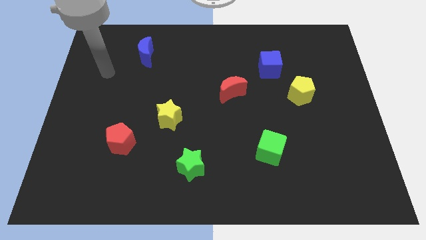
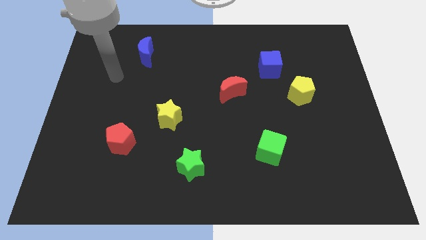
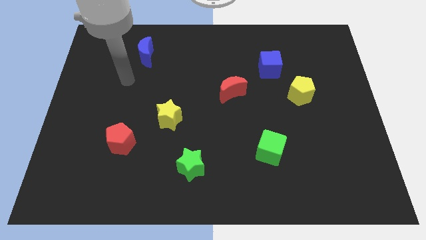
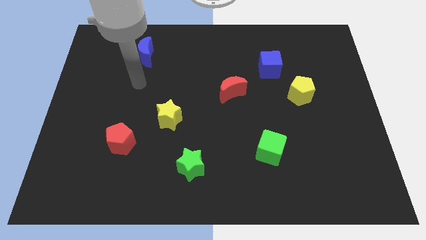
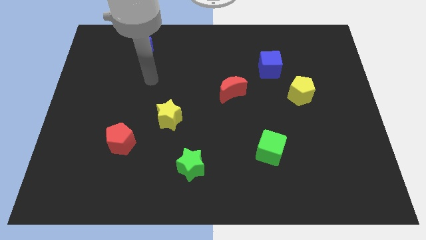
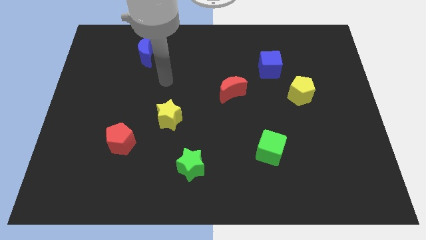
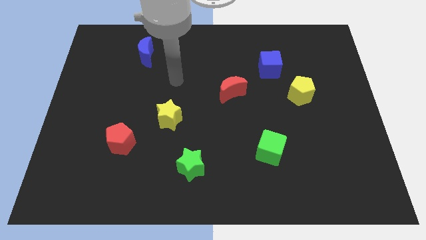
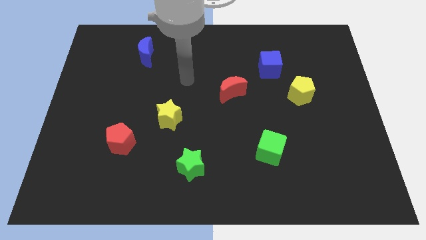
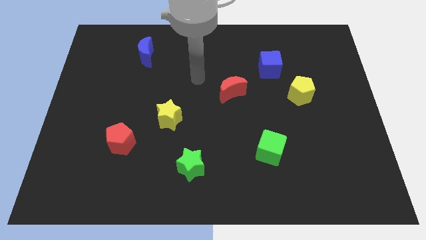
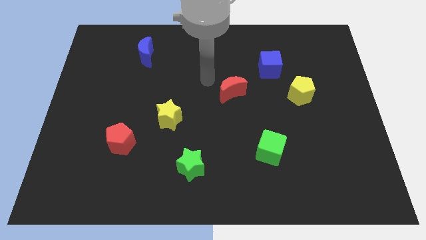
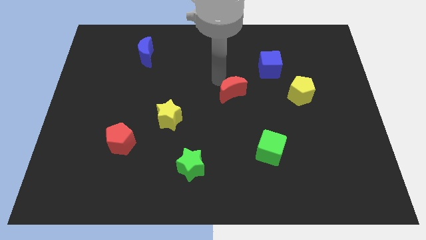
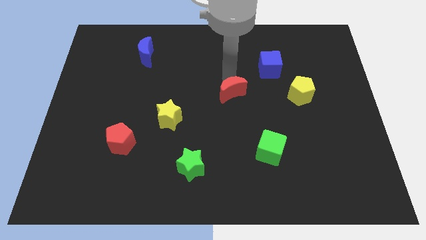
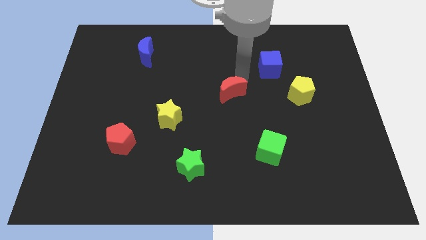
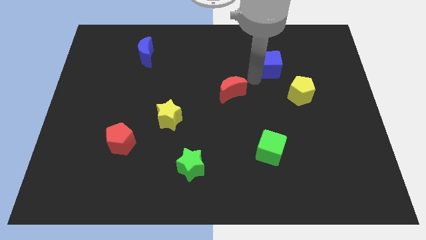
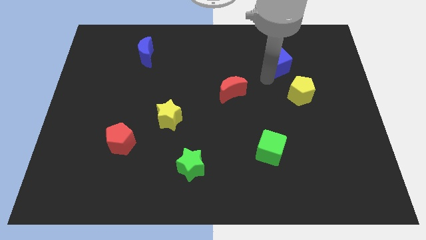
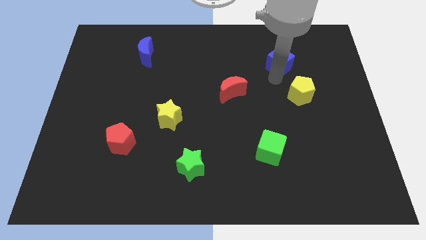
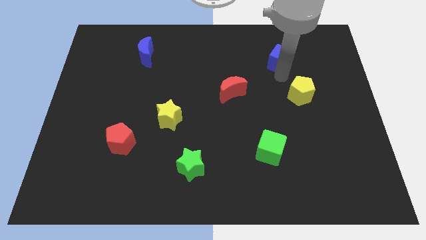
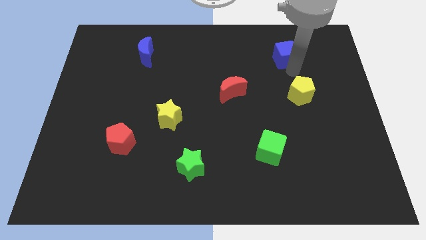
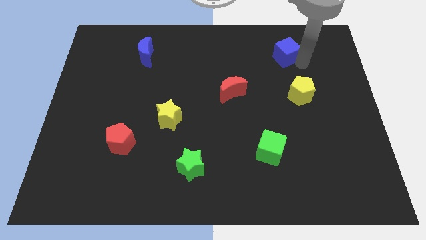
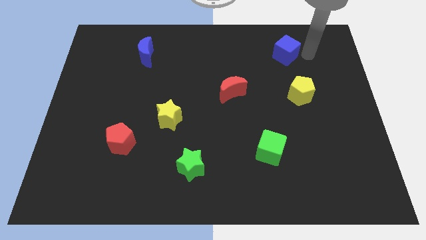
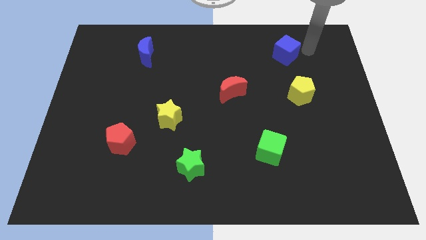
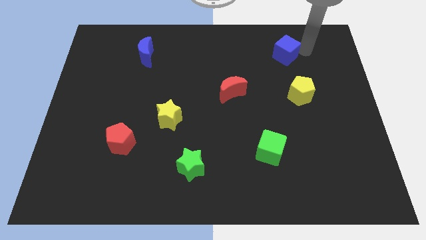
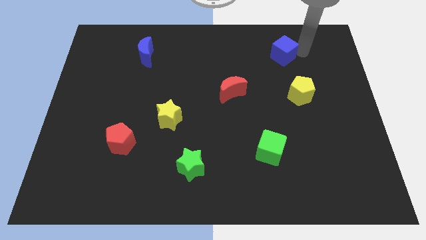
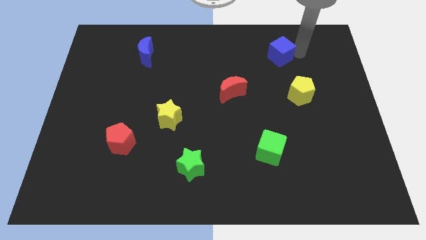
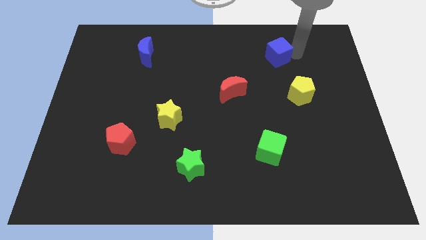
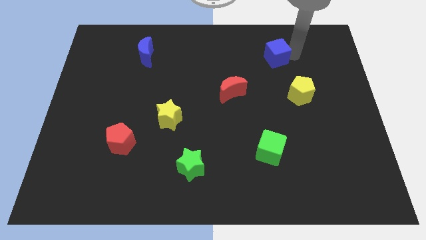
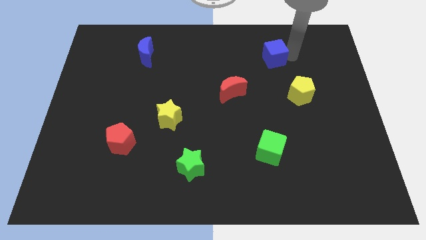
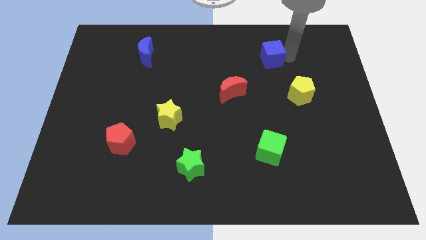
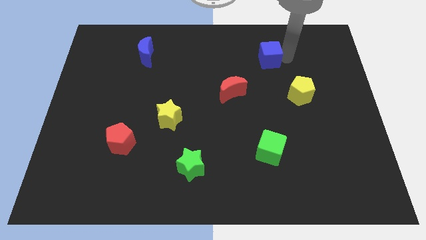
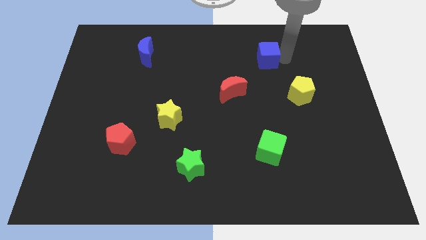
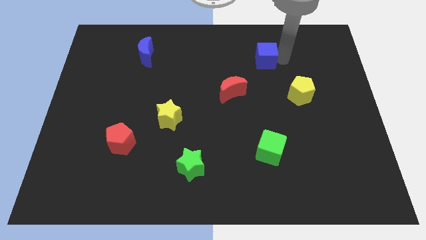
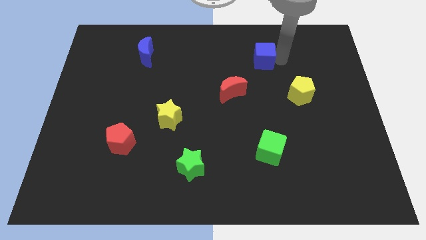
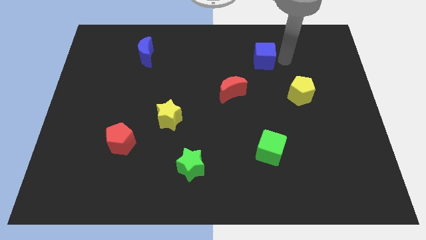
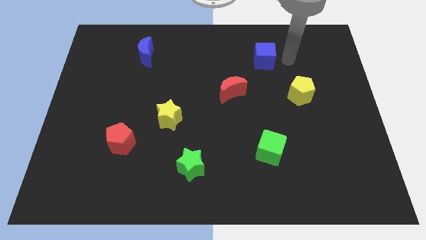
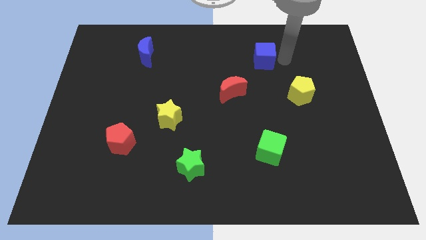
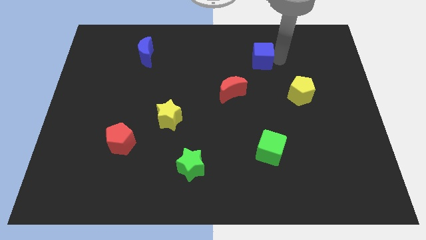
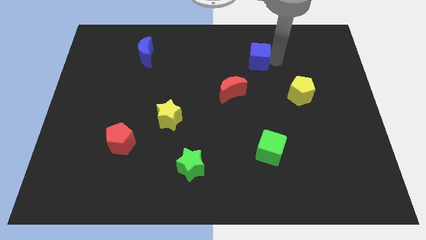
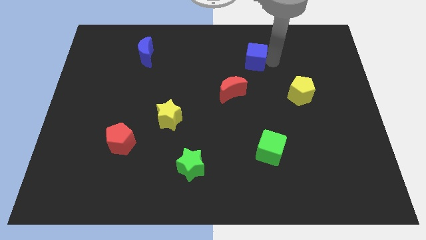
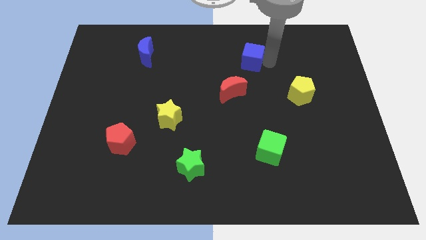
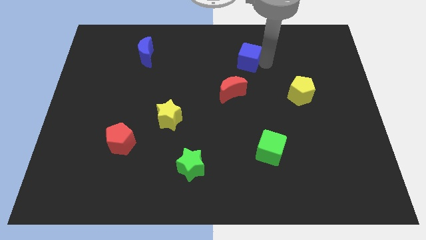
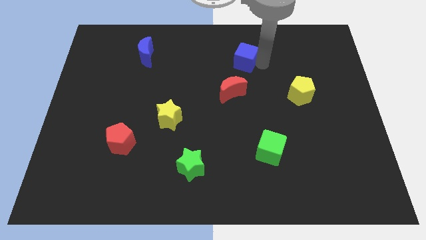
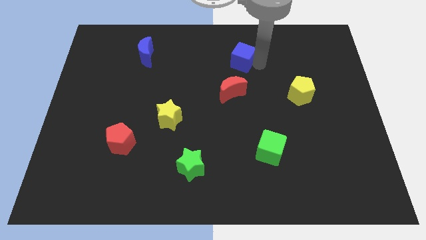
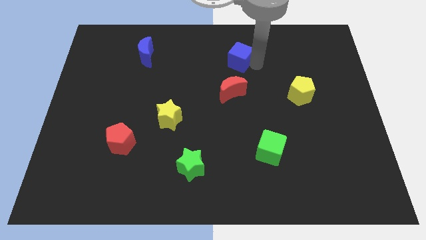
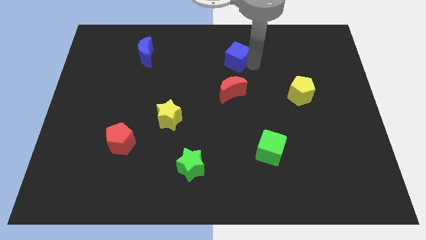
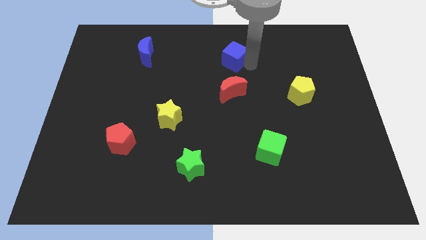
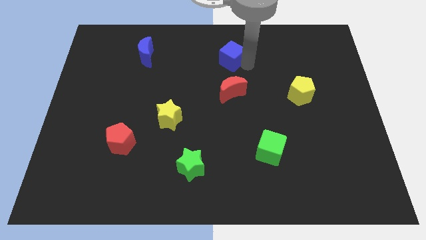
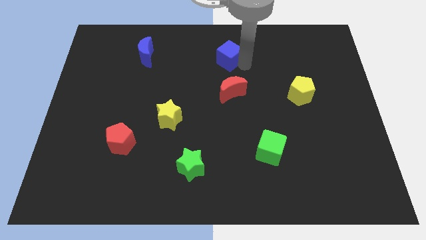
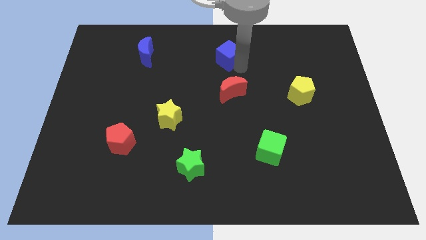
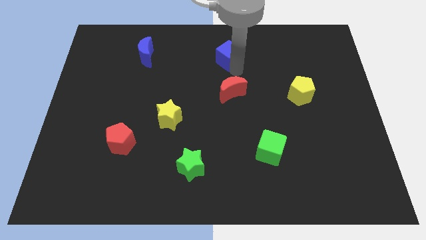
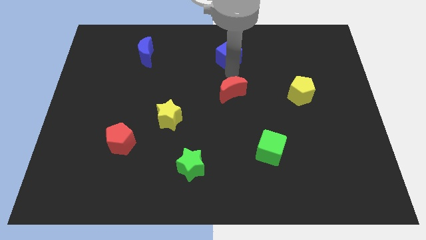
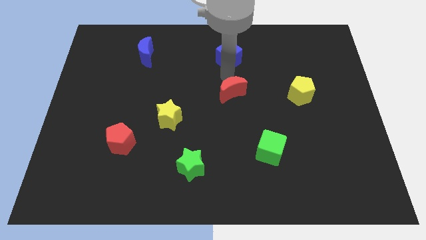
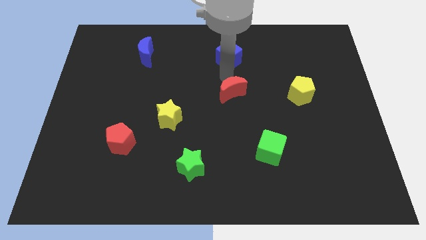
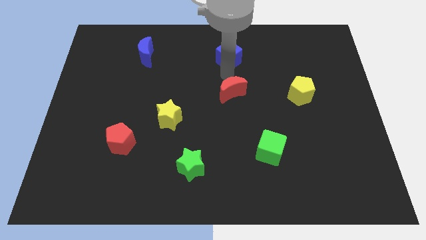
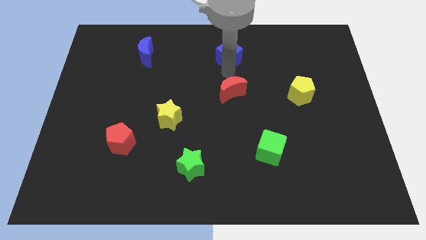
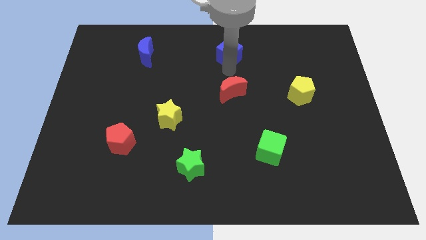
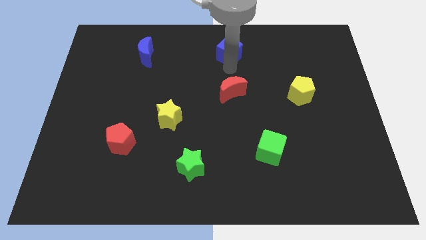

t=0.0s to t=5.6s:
move the blue cube to the top side
